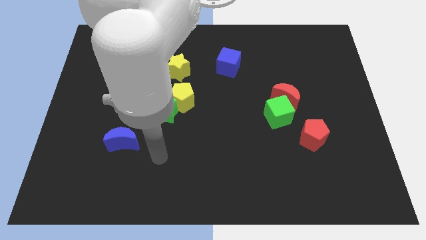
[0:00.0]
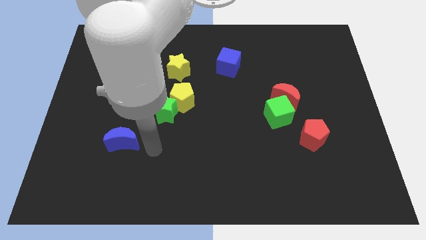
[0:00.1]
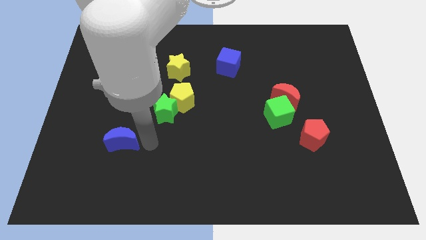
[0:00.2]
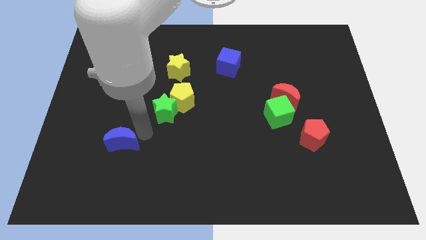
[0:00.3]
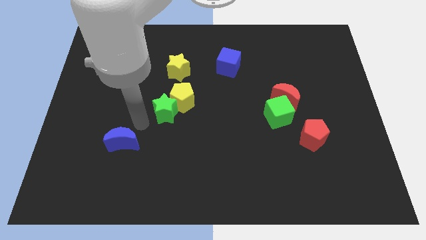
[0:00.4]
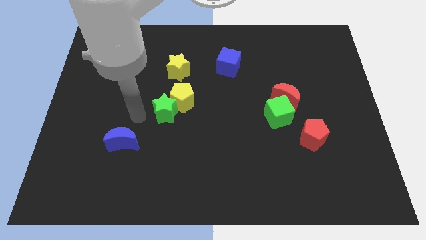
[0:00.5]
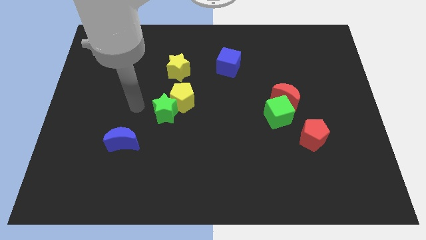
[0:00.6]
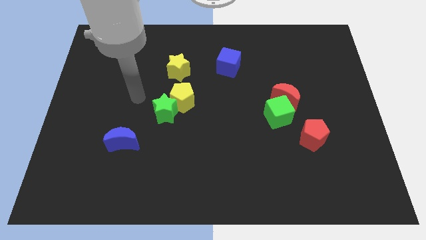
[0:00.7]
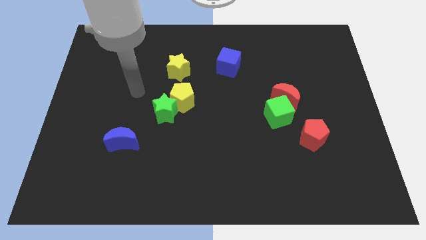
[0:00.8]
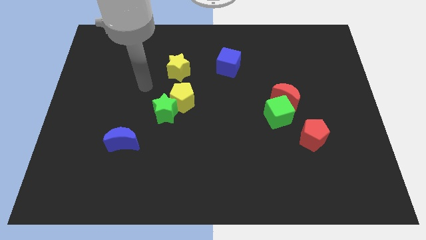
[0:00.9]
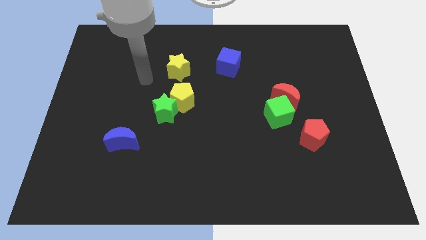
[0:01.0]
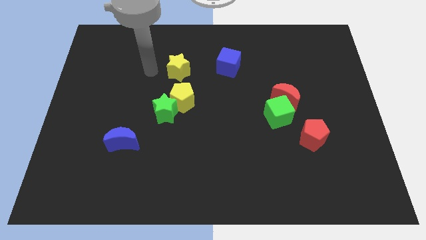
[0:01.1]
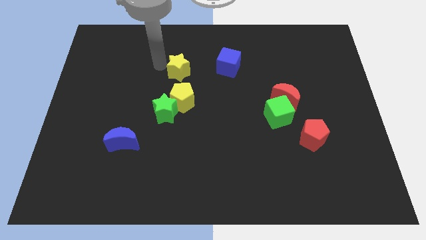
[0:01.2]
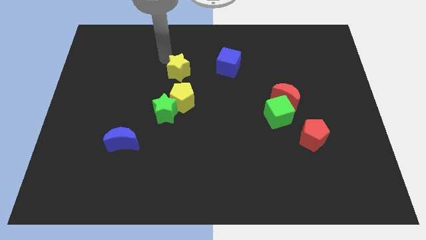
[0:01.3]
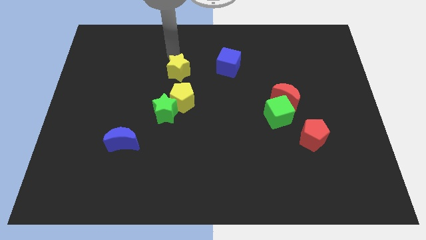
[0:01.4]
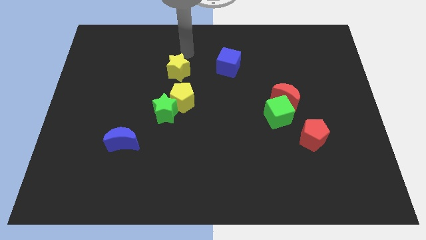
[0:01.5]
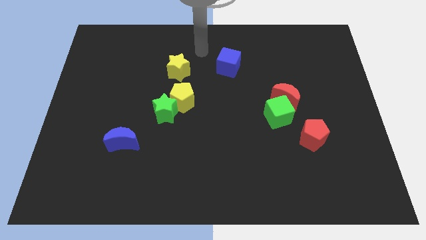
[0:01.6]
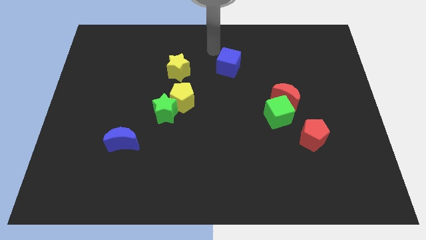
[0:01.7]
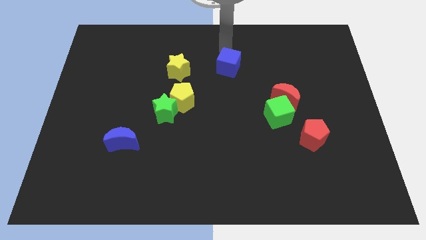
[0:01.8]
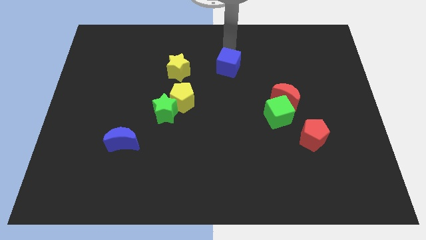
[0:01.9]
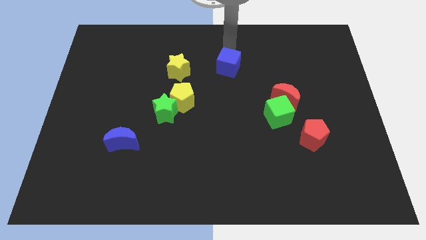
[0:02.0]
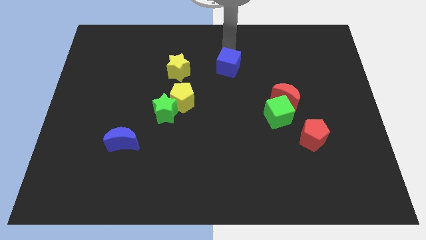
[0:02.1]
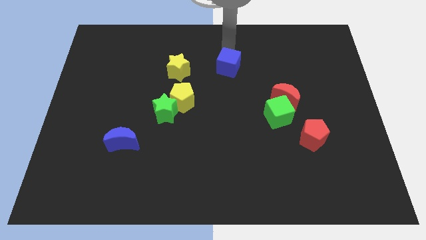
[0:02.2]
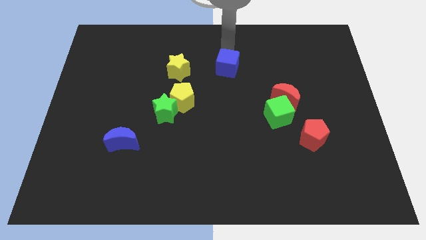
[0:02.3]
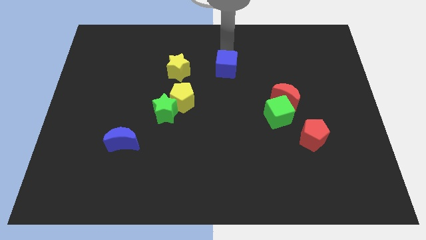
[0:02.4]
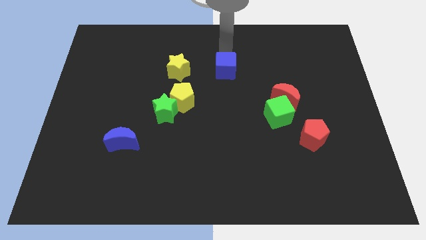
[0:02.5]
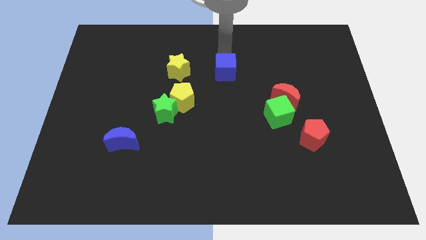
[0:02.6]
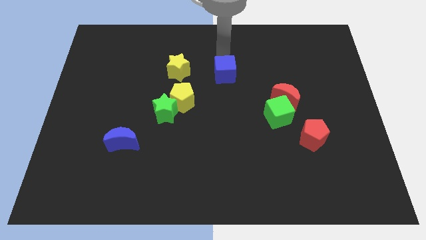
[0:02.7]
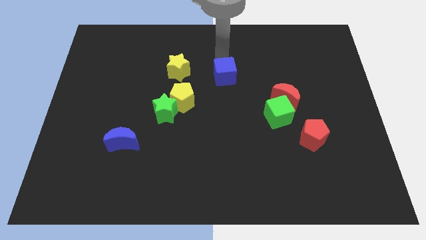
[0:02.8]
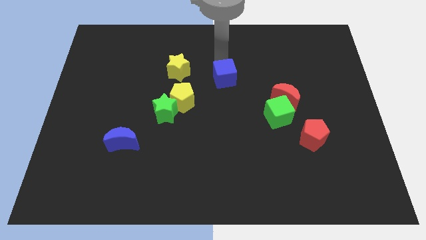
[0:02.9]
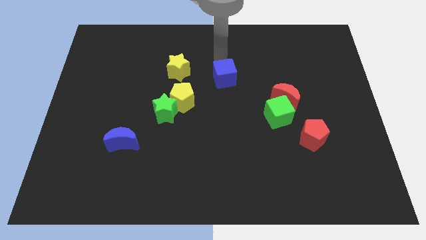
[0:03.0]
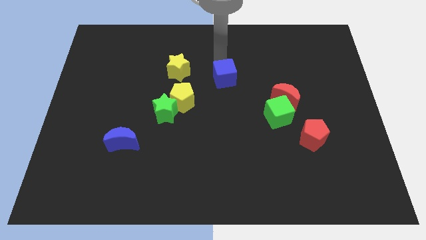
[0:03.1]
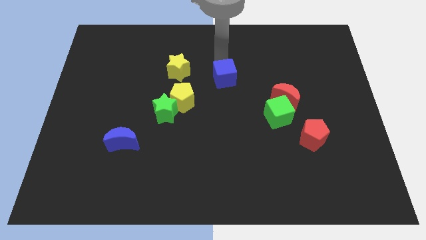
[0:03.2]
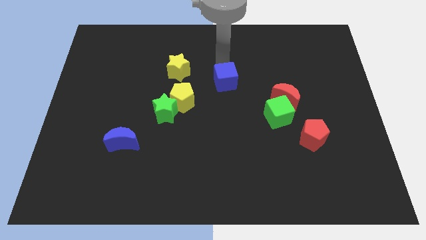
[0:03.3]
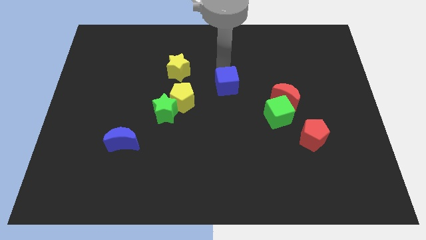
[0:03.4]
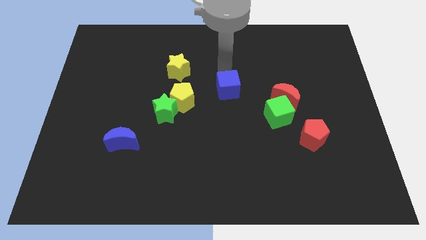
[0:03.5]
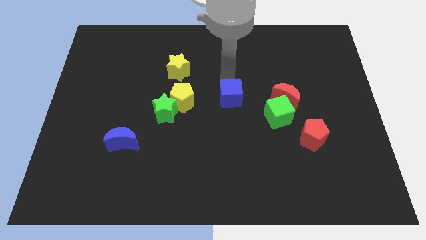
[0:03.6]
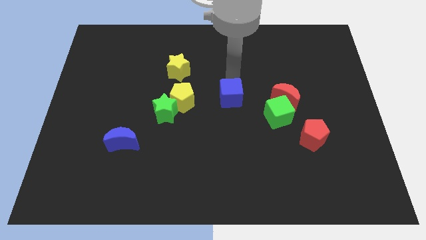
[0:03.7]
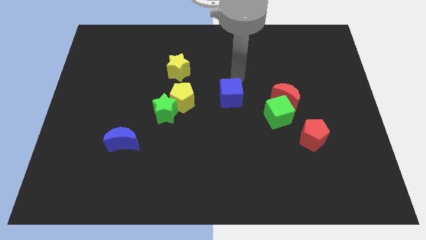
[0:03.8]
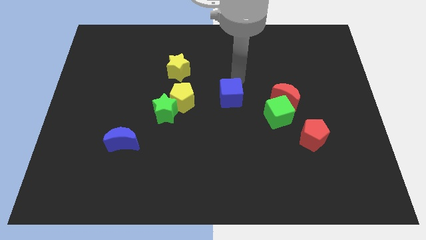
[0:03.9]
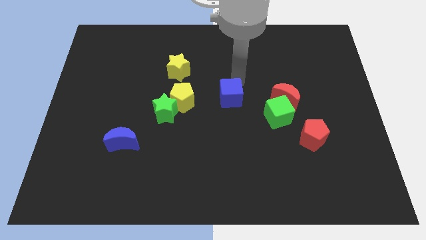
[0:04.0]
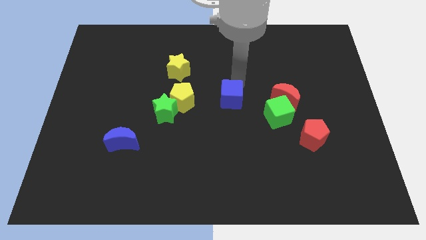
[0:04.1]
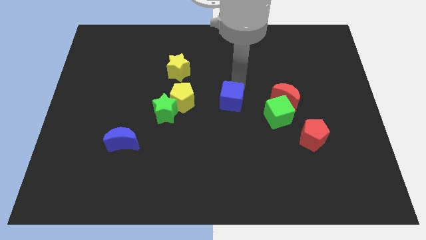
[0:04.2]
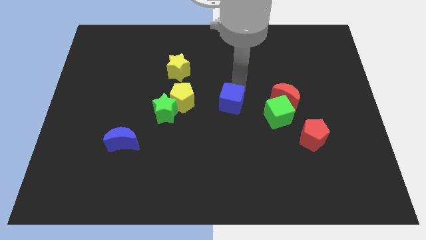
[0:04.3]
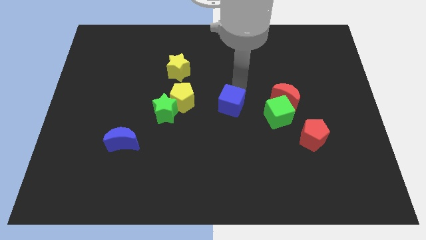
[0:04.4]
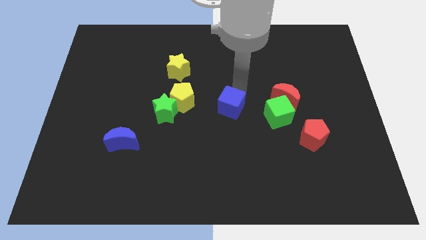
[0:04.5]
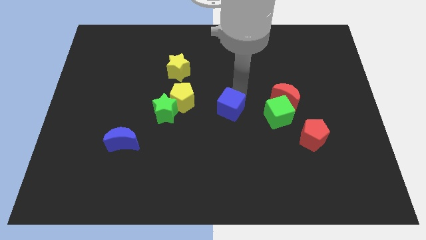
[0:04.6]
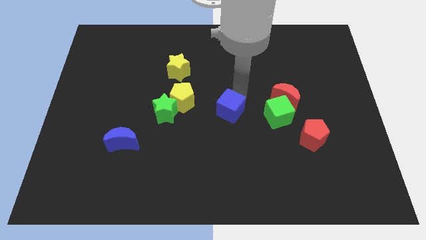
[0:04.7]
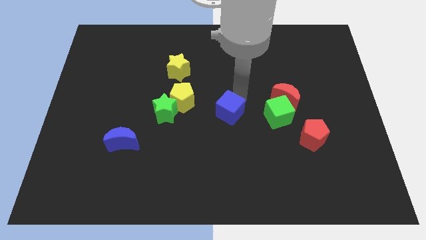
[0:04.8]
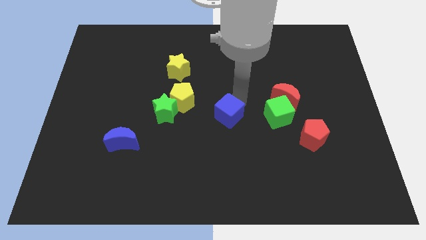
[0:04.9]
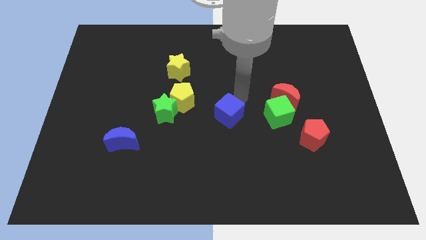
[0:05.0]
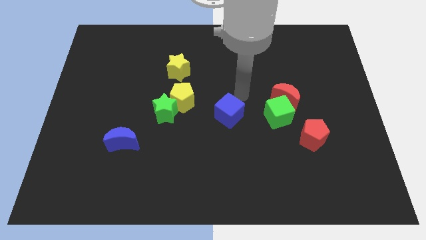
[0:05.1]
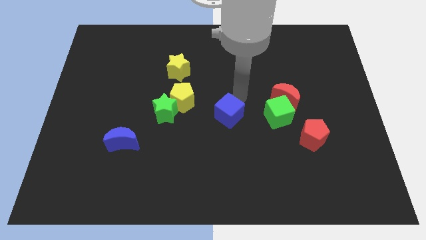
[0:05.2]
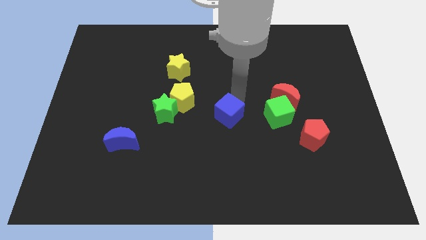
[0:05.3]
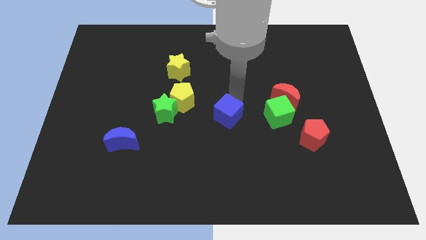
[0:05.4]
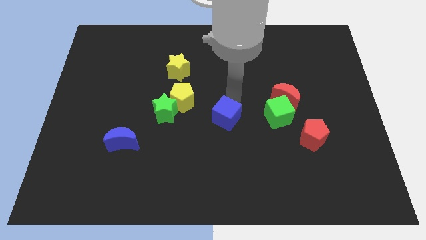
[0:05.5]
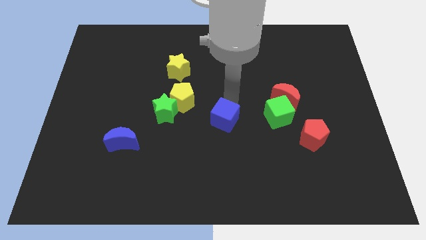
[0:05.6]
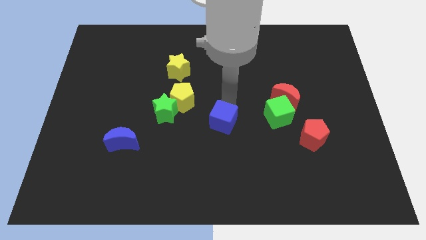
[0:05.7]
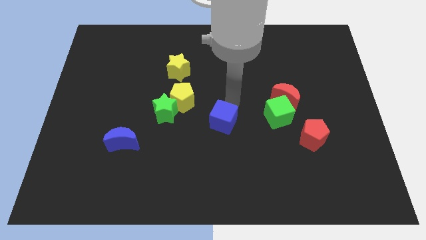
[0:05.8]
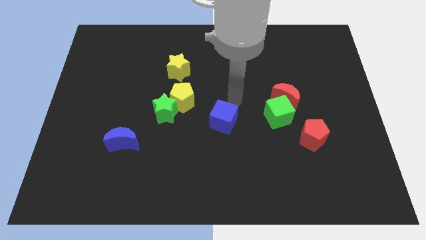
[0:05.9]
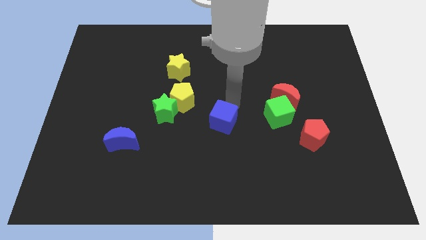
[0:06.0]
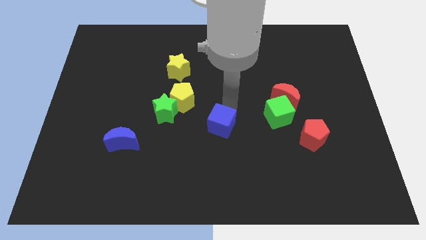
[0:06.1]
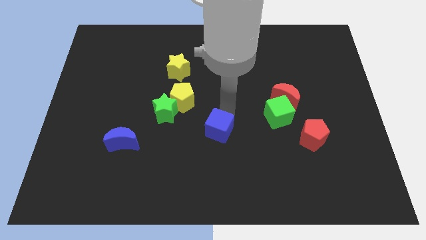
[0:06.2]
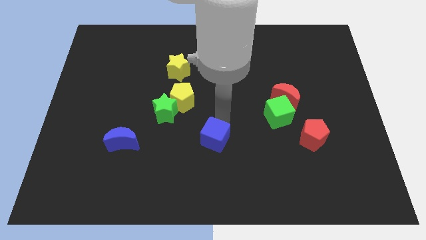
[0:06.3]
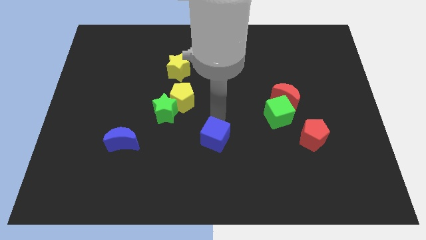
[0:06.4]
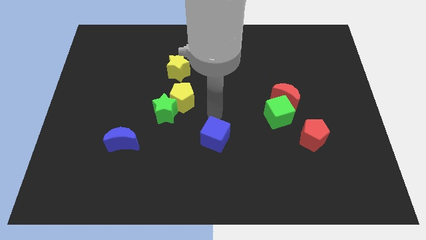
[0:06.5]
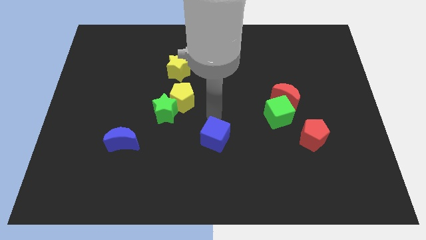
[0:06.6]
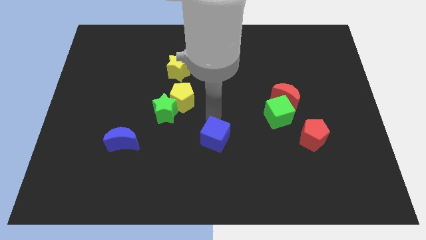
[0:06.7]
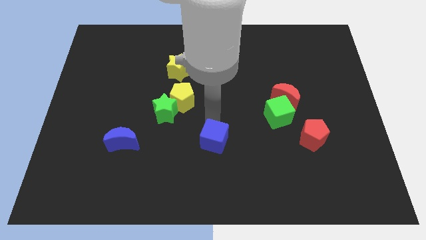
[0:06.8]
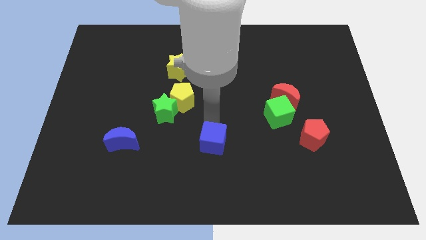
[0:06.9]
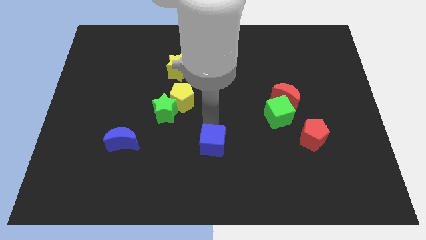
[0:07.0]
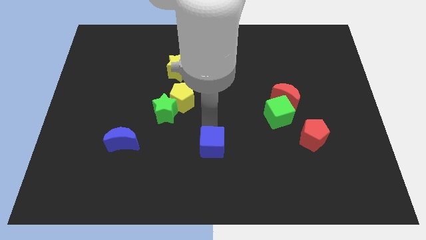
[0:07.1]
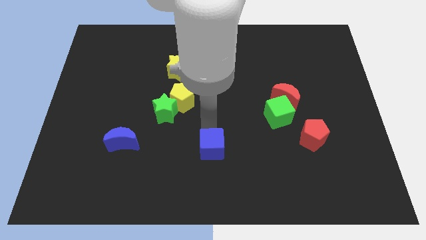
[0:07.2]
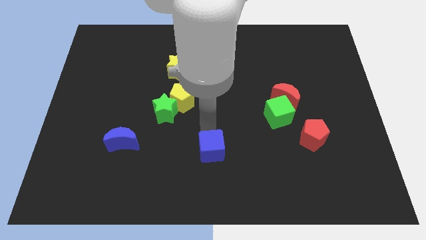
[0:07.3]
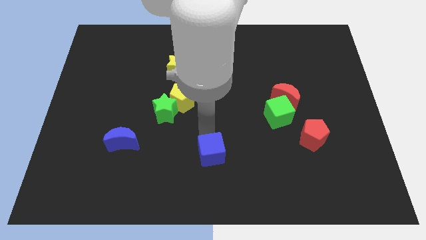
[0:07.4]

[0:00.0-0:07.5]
move the blue cube to the bottom side
